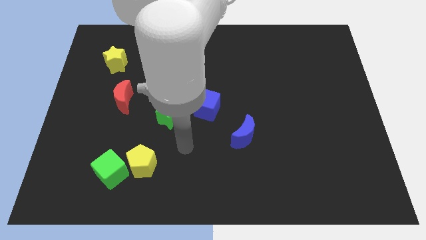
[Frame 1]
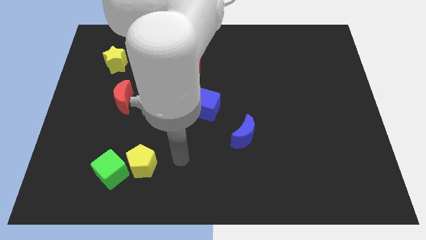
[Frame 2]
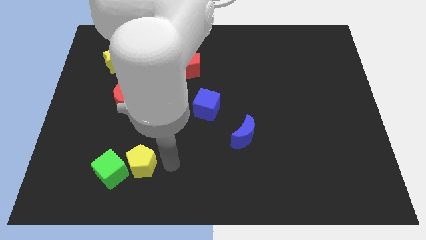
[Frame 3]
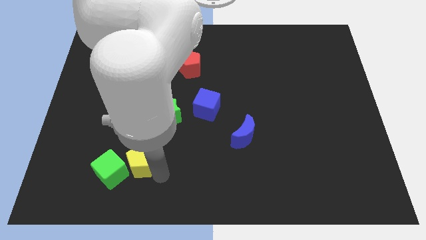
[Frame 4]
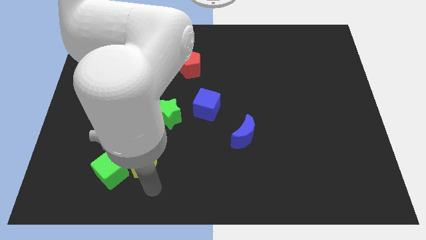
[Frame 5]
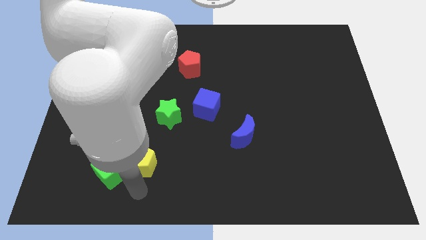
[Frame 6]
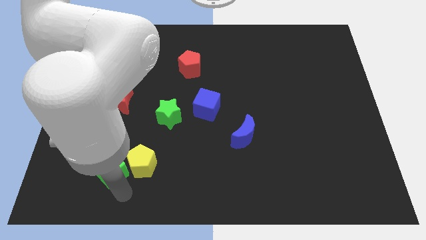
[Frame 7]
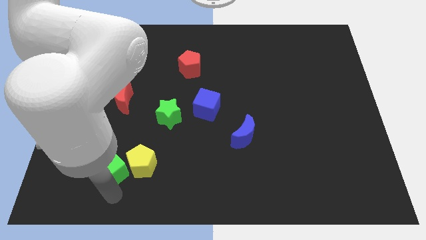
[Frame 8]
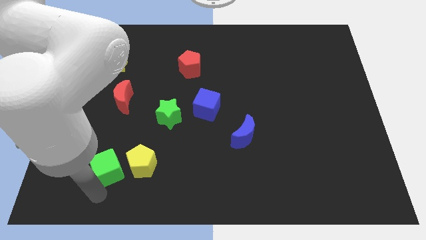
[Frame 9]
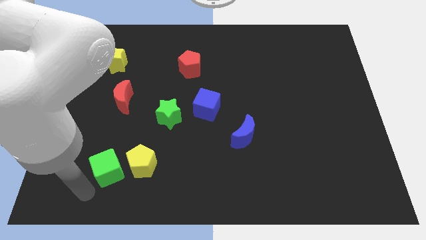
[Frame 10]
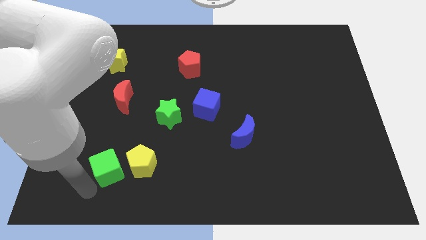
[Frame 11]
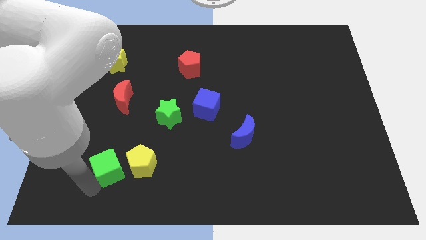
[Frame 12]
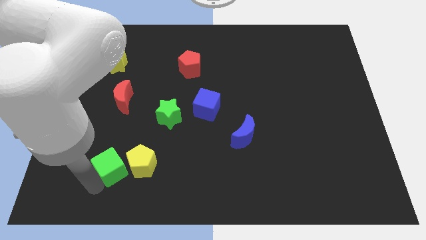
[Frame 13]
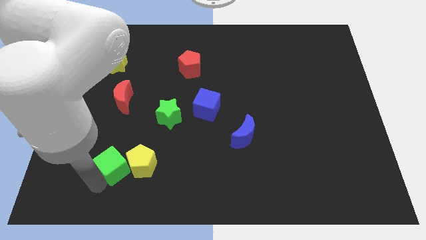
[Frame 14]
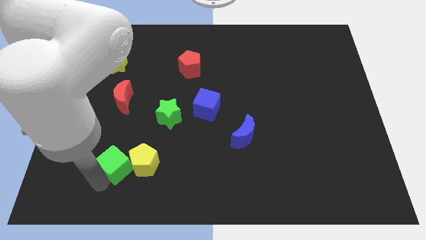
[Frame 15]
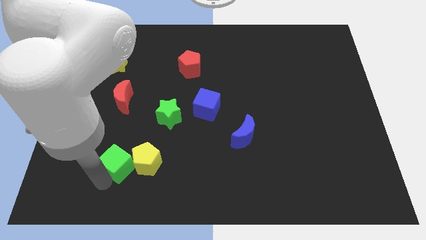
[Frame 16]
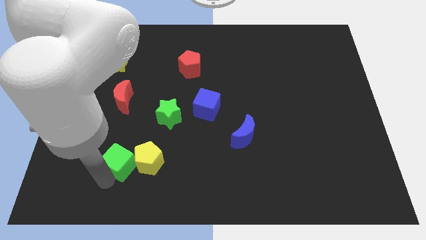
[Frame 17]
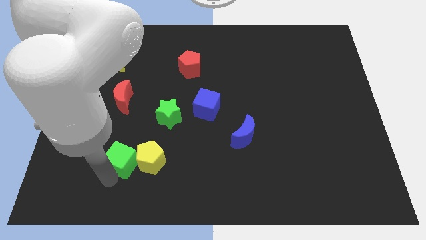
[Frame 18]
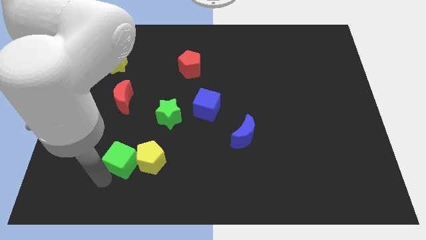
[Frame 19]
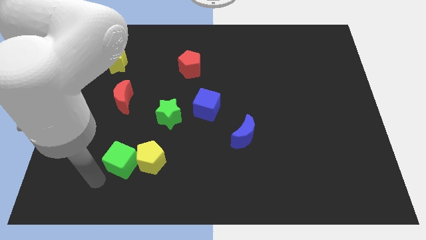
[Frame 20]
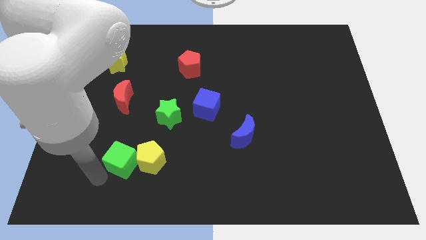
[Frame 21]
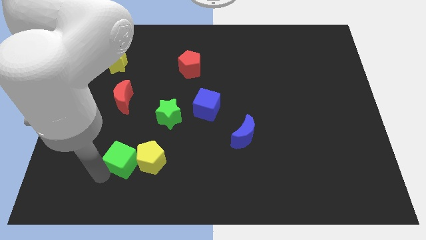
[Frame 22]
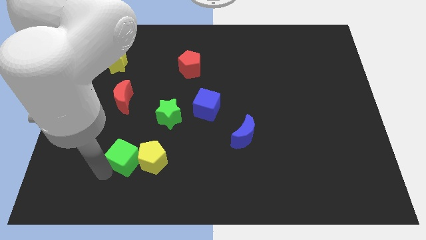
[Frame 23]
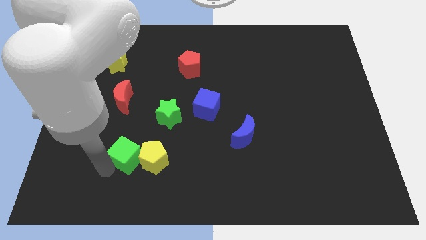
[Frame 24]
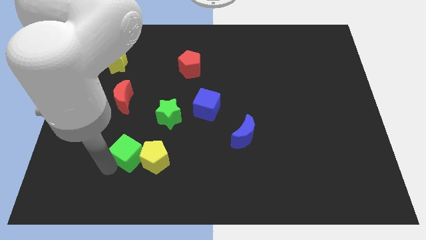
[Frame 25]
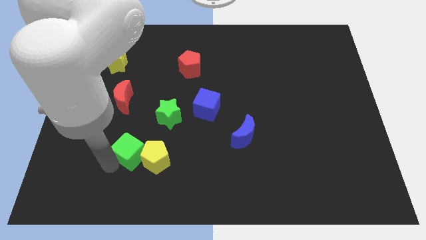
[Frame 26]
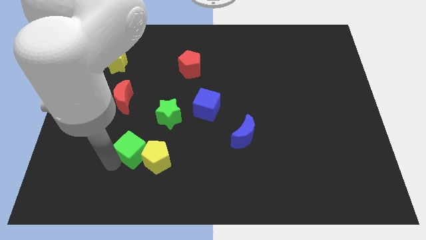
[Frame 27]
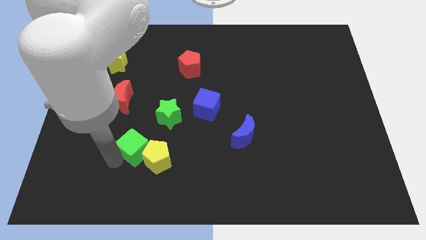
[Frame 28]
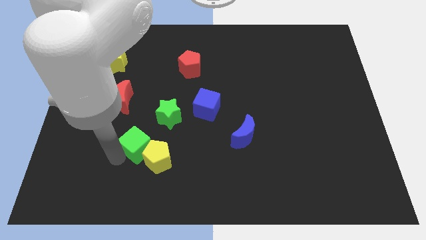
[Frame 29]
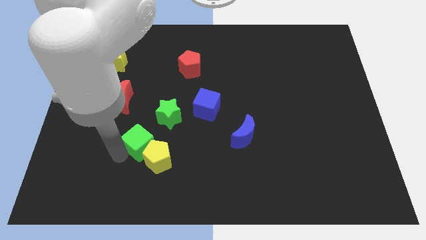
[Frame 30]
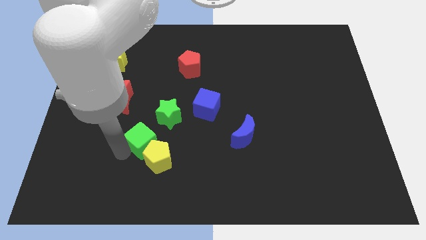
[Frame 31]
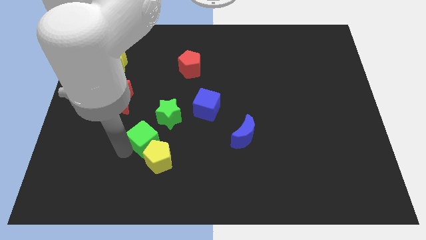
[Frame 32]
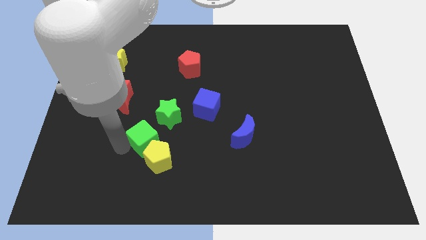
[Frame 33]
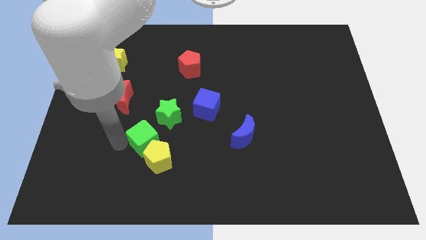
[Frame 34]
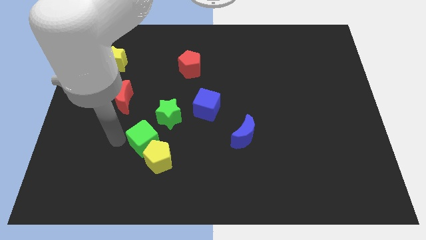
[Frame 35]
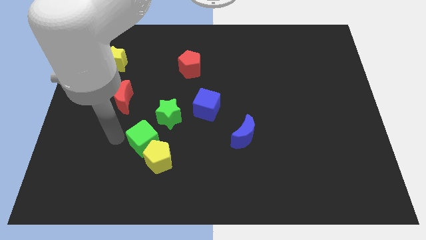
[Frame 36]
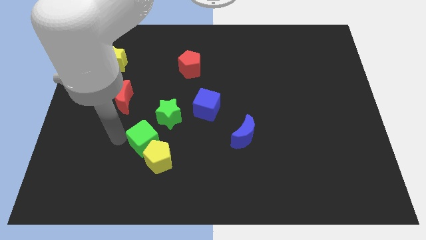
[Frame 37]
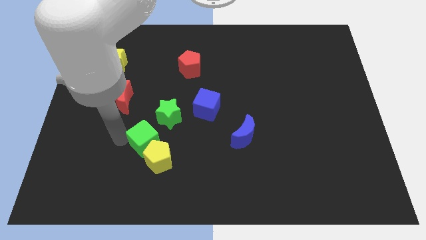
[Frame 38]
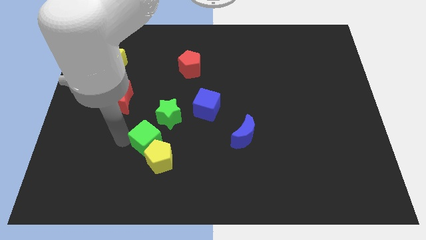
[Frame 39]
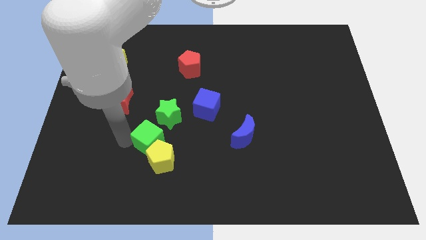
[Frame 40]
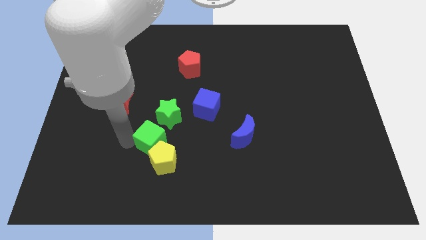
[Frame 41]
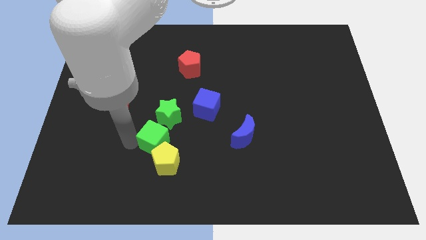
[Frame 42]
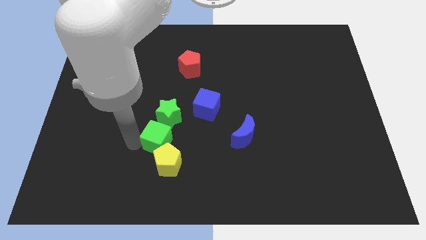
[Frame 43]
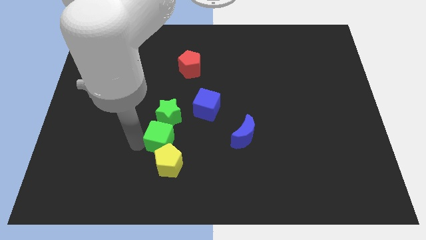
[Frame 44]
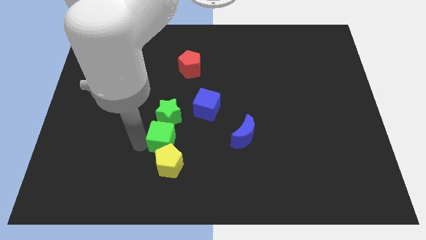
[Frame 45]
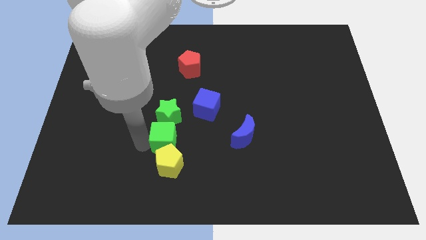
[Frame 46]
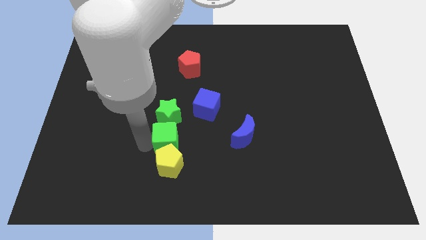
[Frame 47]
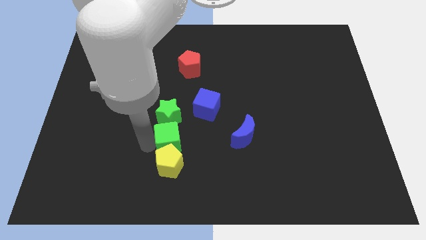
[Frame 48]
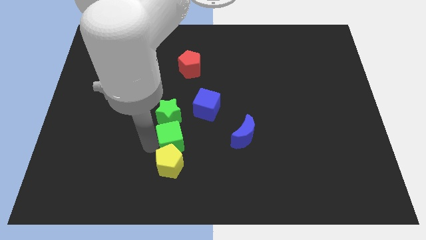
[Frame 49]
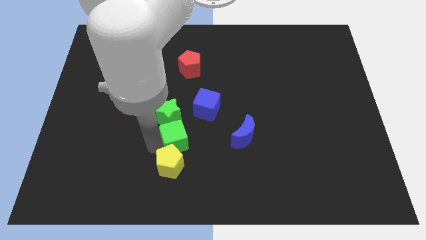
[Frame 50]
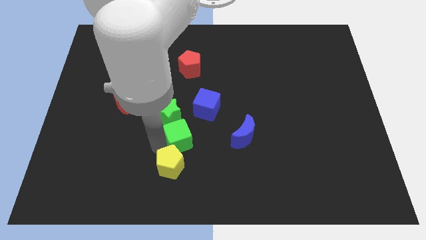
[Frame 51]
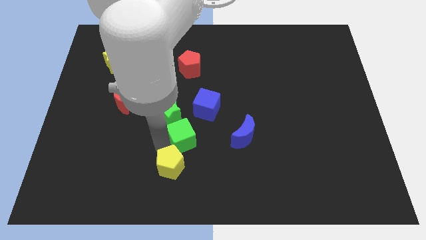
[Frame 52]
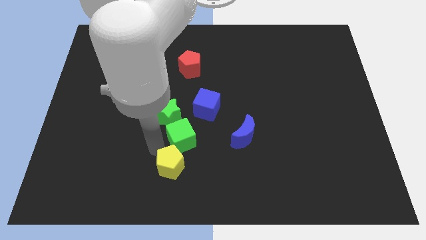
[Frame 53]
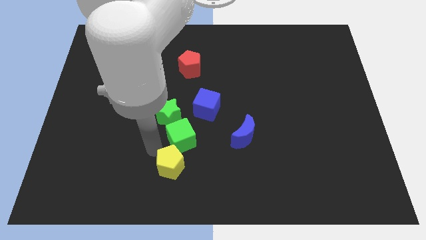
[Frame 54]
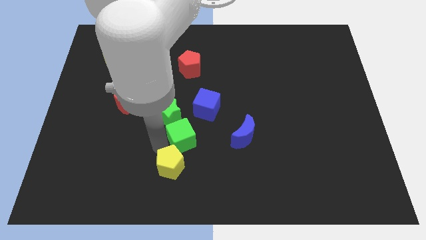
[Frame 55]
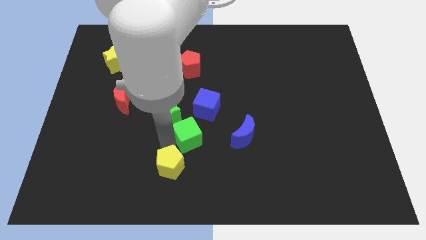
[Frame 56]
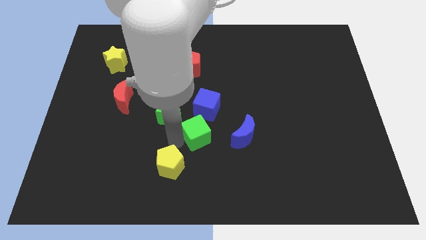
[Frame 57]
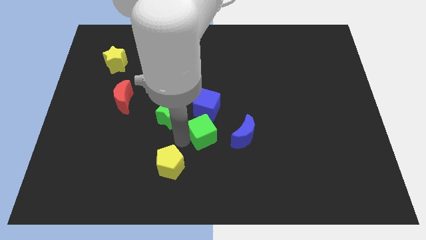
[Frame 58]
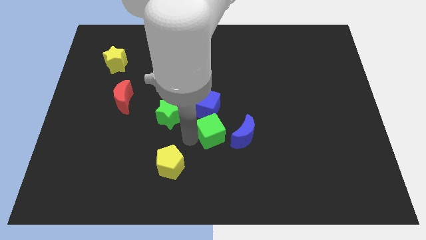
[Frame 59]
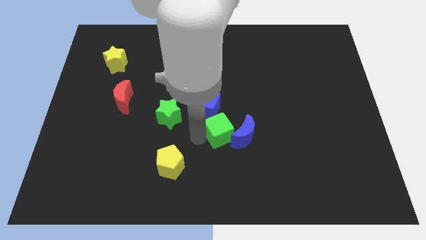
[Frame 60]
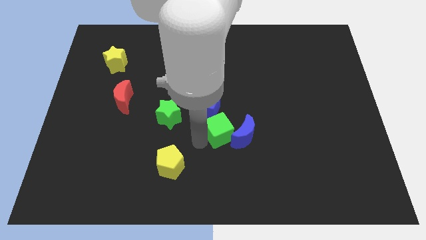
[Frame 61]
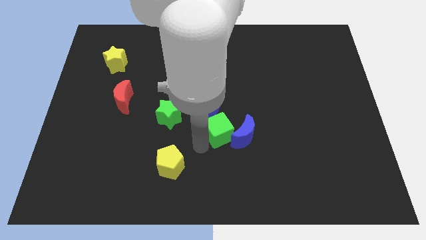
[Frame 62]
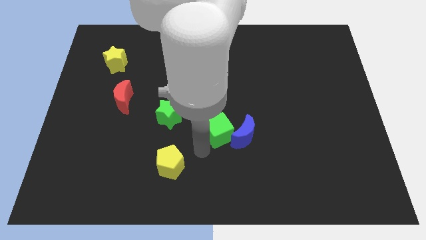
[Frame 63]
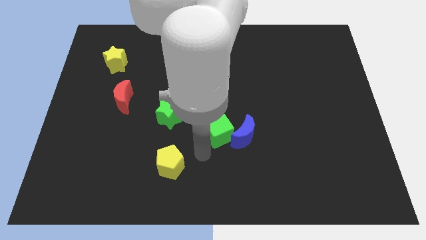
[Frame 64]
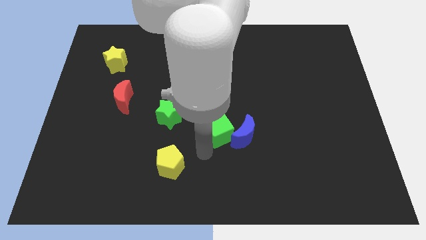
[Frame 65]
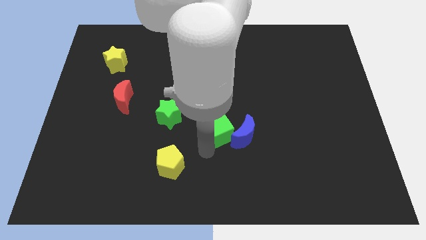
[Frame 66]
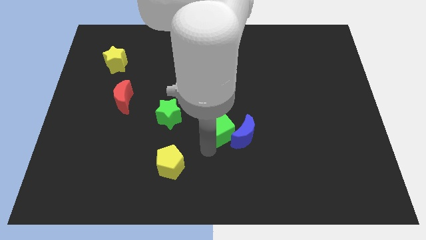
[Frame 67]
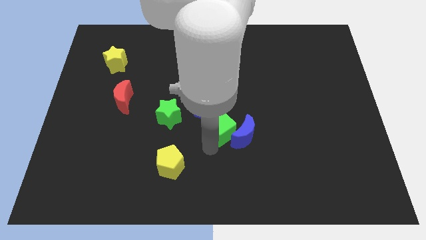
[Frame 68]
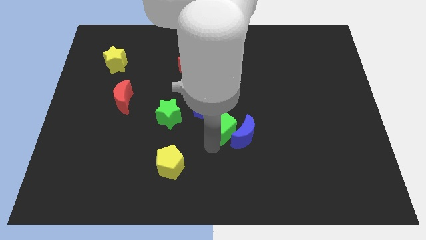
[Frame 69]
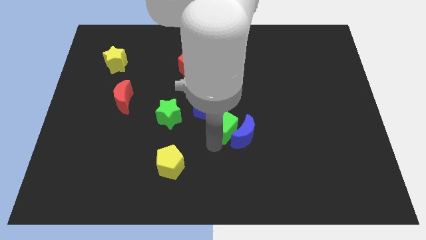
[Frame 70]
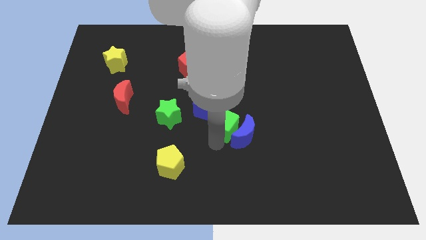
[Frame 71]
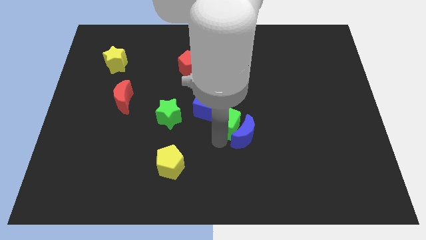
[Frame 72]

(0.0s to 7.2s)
move the green cube just right of the blue cube
